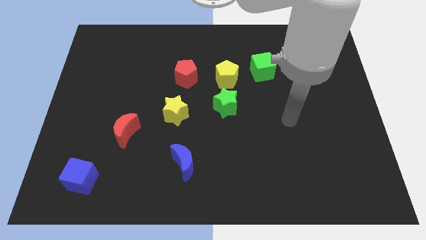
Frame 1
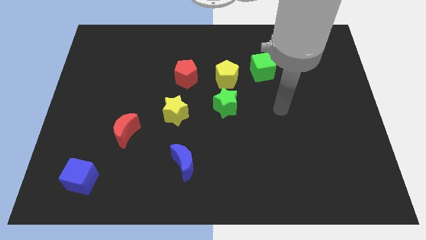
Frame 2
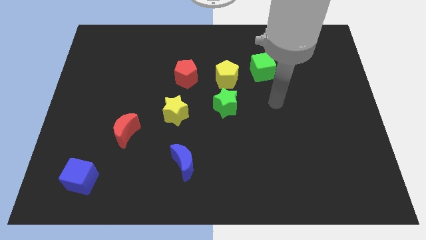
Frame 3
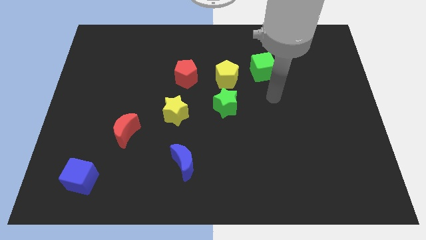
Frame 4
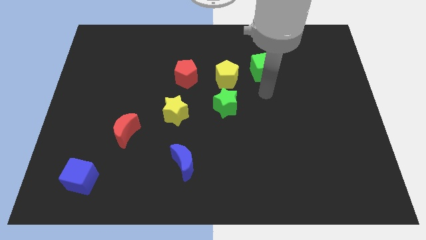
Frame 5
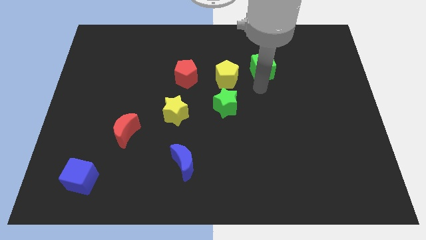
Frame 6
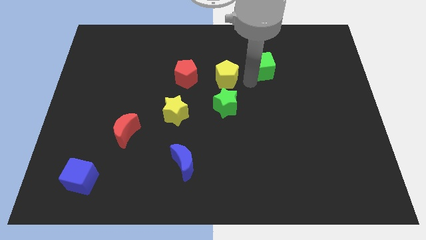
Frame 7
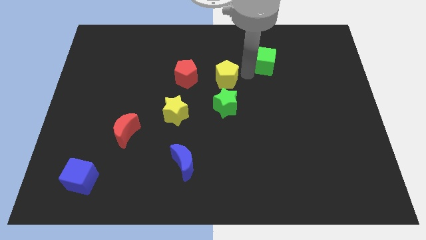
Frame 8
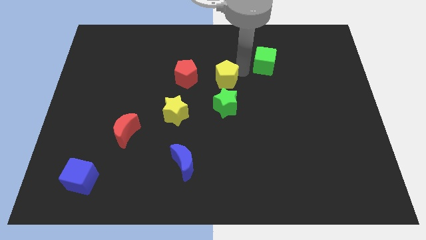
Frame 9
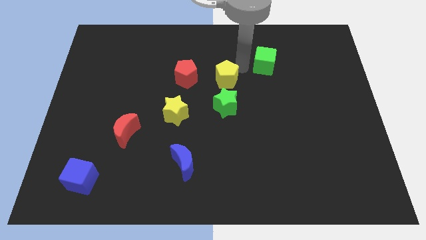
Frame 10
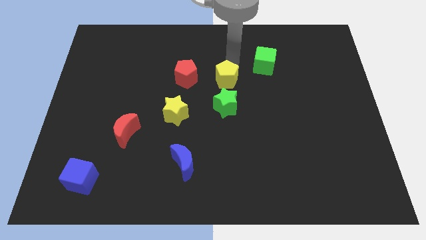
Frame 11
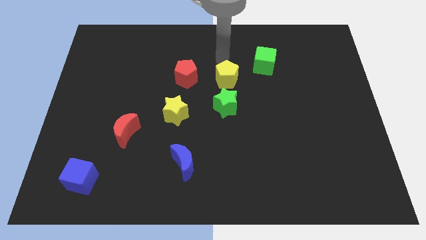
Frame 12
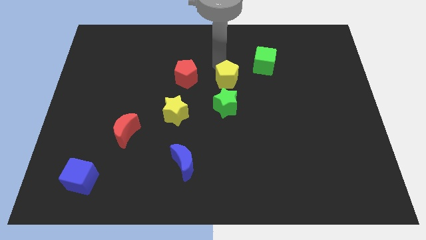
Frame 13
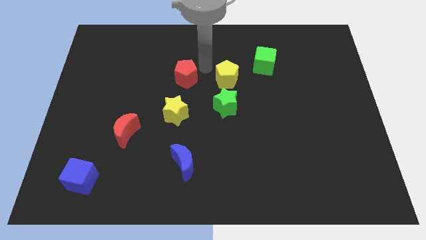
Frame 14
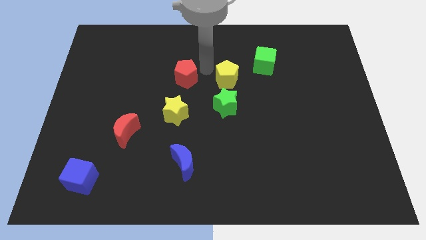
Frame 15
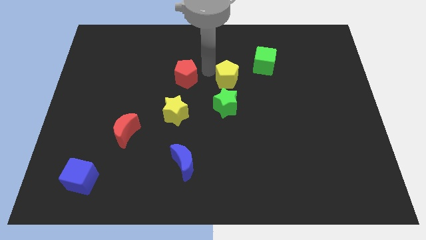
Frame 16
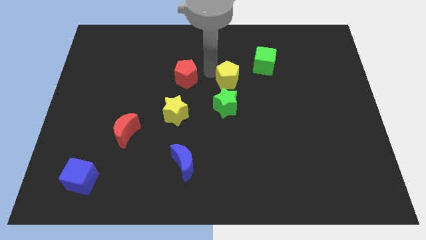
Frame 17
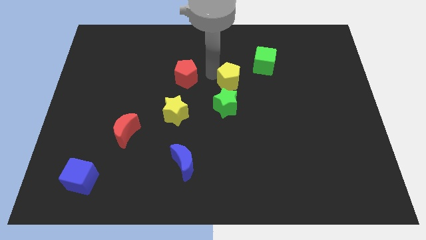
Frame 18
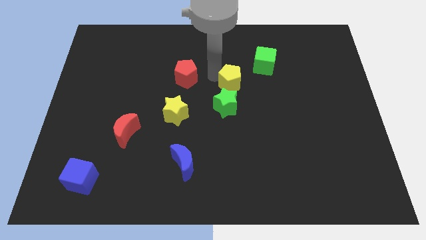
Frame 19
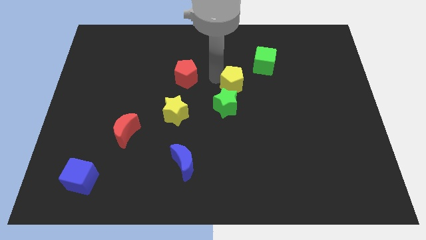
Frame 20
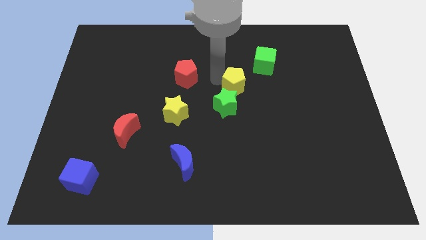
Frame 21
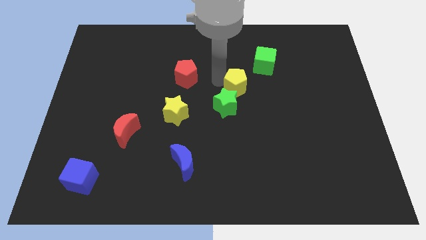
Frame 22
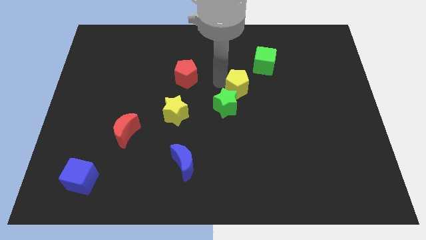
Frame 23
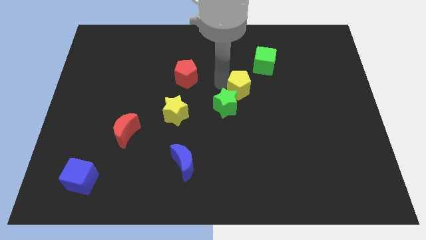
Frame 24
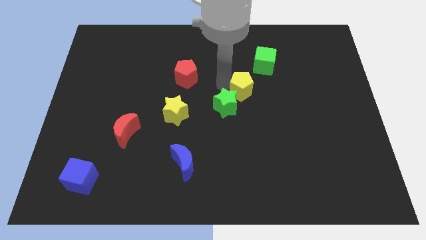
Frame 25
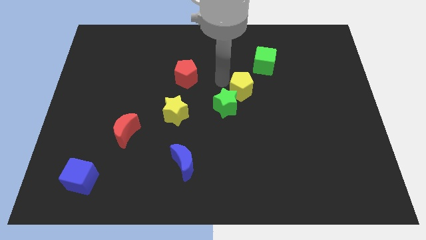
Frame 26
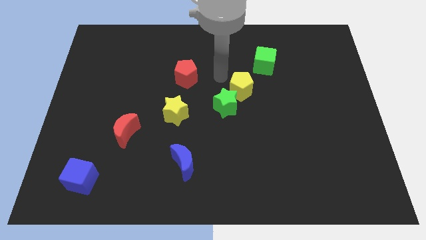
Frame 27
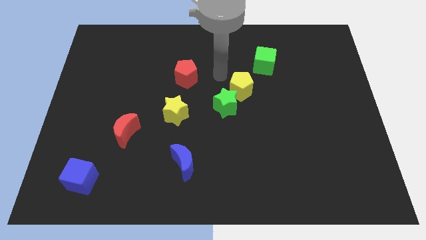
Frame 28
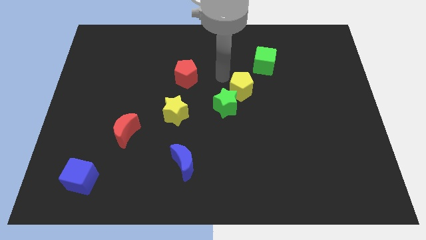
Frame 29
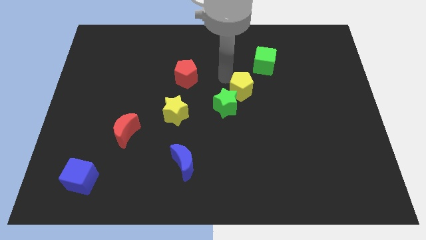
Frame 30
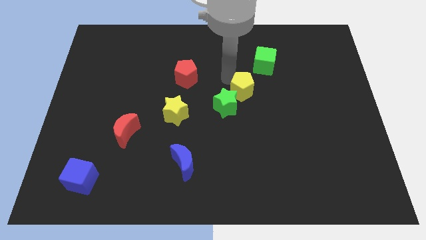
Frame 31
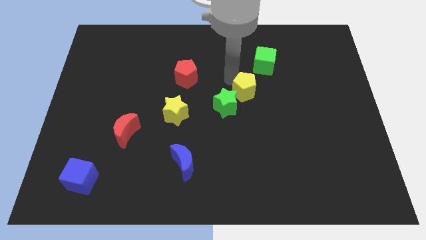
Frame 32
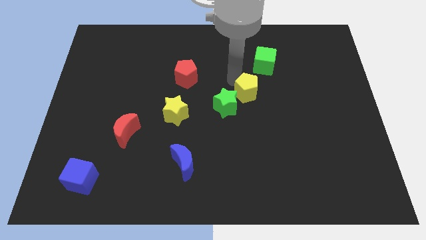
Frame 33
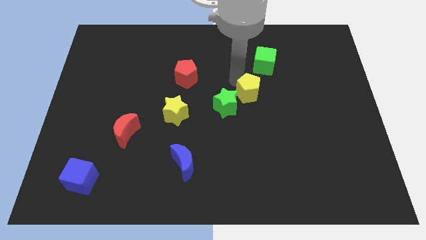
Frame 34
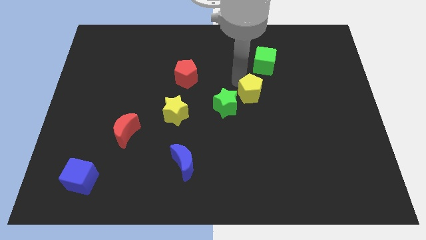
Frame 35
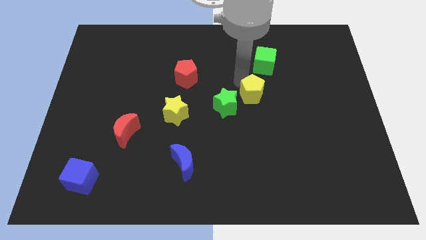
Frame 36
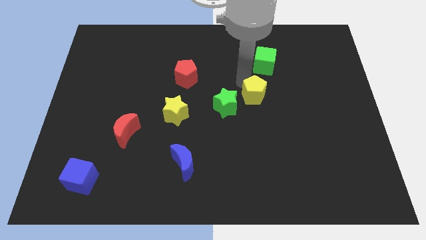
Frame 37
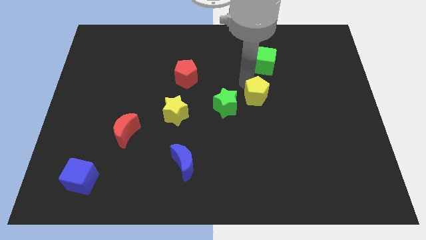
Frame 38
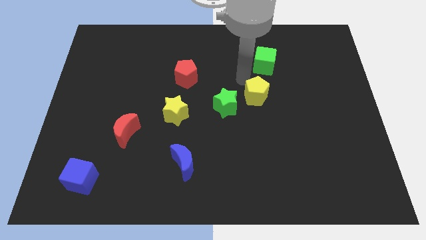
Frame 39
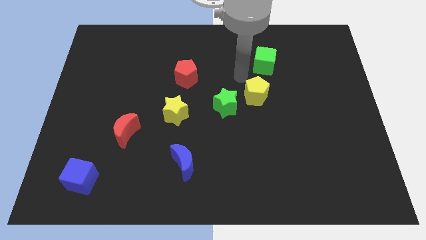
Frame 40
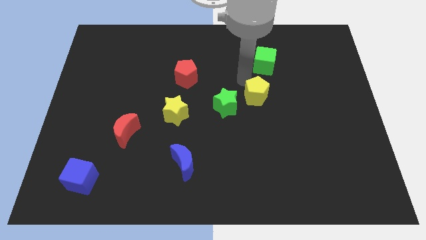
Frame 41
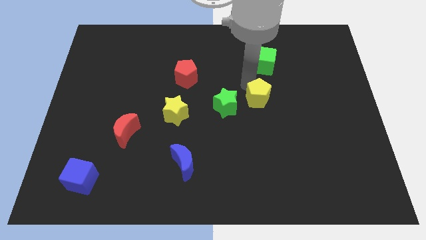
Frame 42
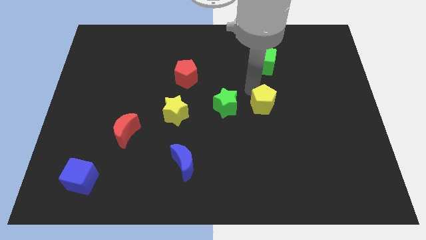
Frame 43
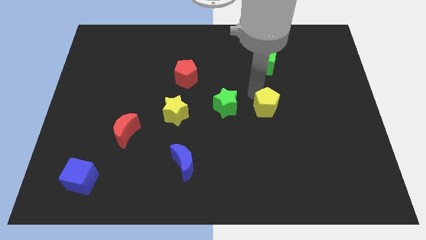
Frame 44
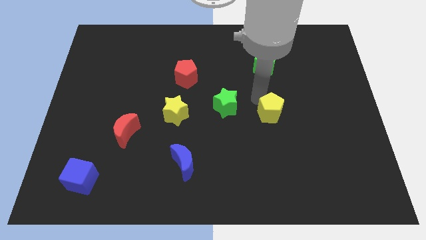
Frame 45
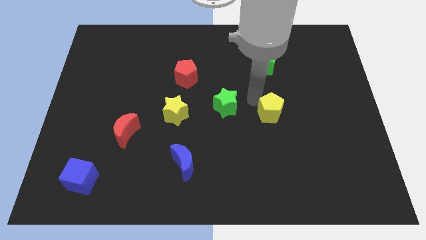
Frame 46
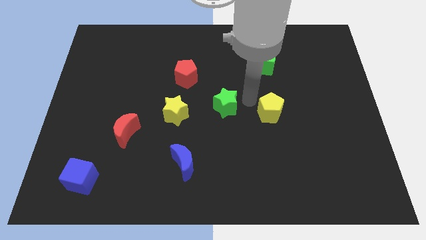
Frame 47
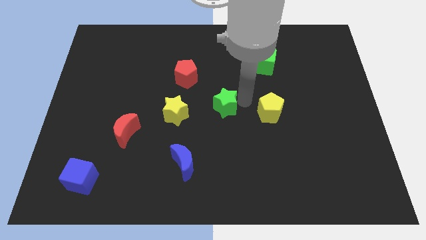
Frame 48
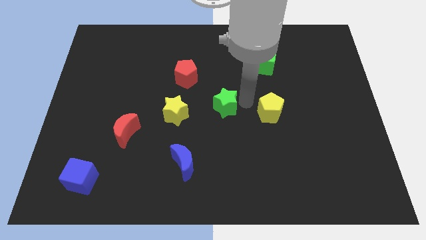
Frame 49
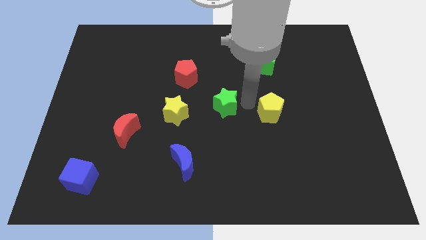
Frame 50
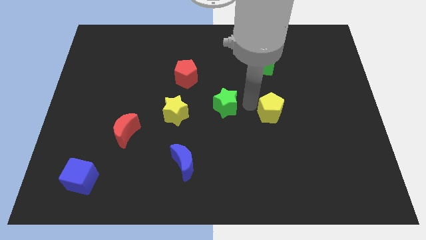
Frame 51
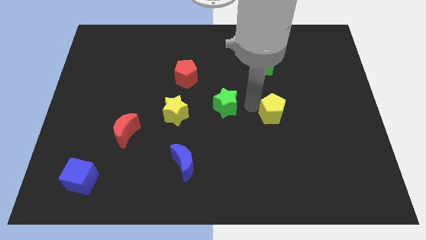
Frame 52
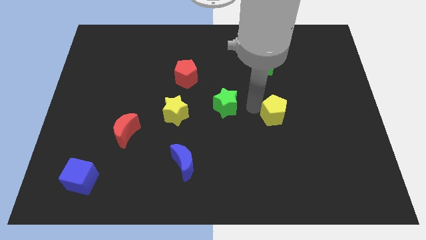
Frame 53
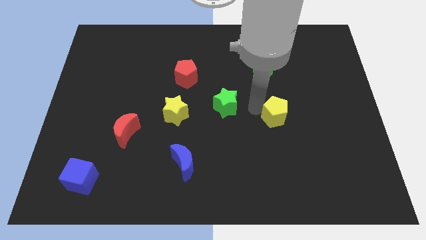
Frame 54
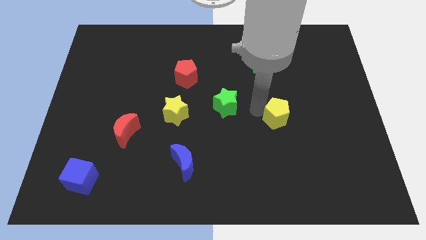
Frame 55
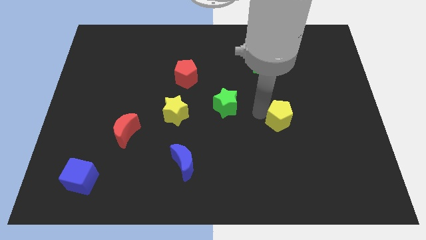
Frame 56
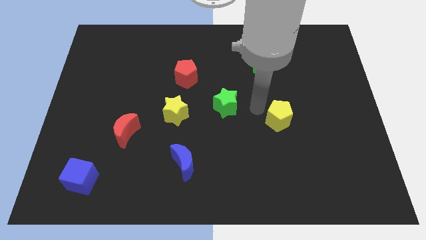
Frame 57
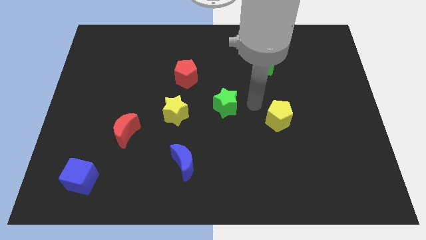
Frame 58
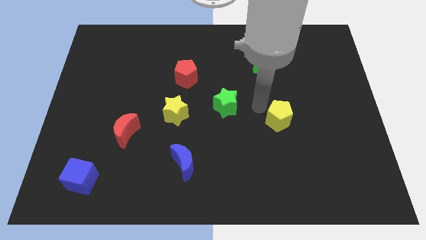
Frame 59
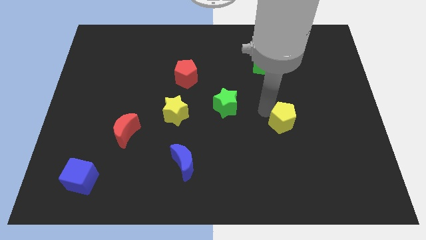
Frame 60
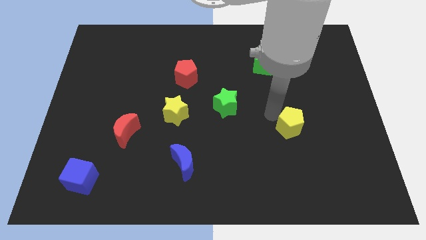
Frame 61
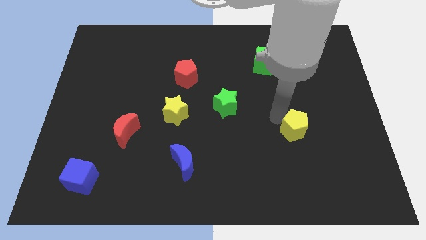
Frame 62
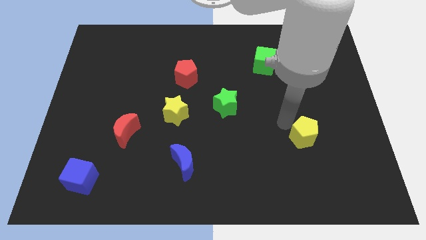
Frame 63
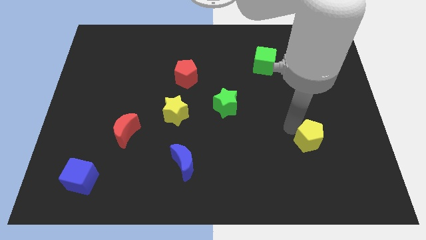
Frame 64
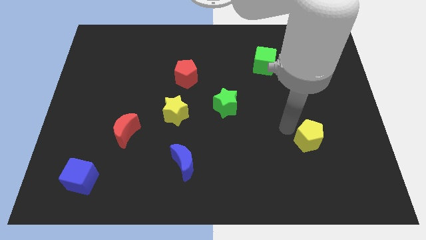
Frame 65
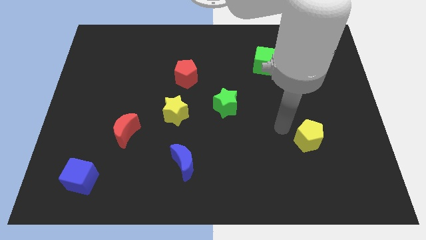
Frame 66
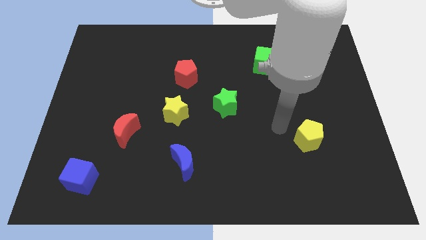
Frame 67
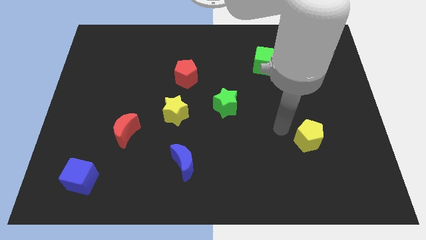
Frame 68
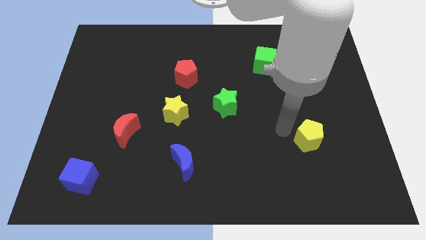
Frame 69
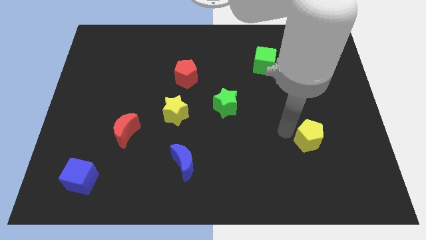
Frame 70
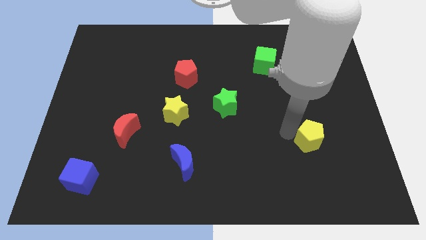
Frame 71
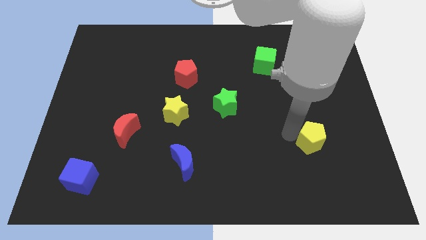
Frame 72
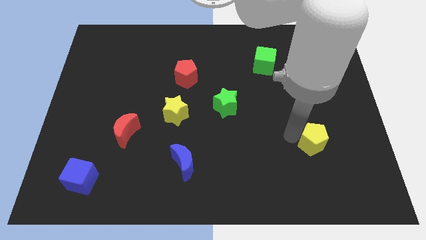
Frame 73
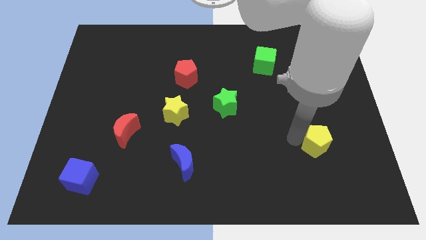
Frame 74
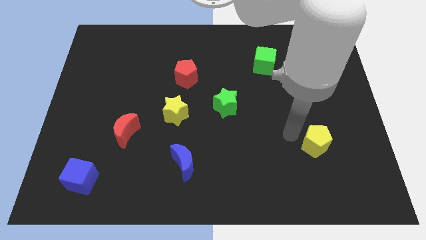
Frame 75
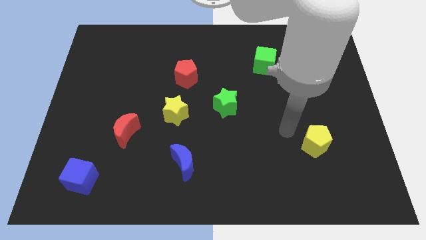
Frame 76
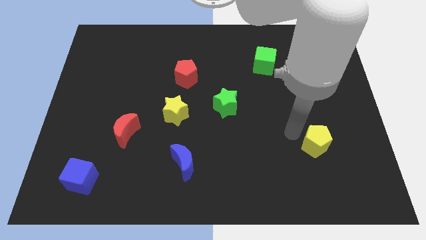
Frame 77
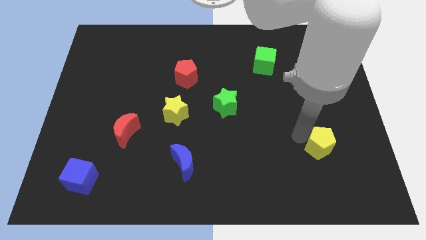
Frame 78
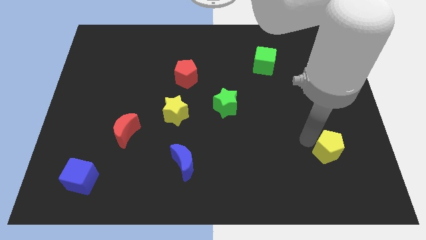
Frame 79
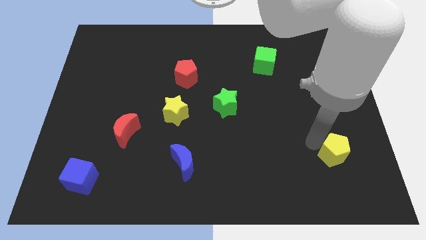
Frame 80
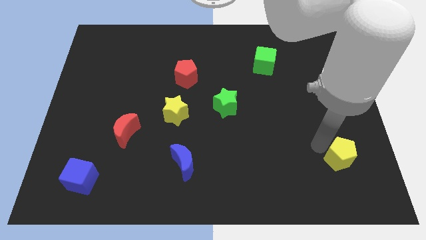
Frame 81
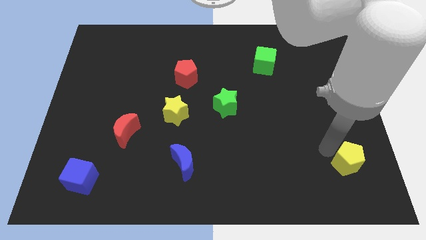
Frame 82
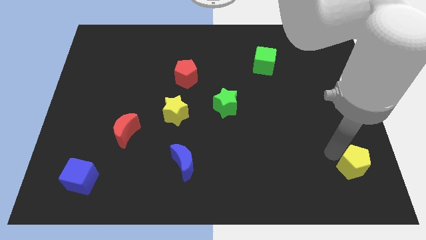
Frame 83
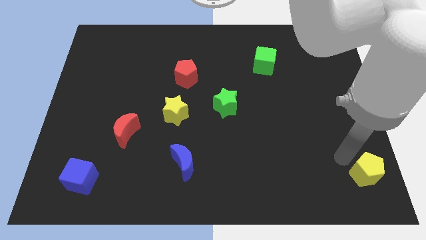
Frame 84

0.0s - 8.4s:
slide the yellow pentagon to the bottom right of the board
